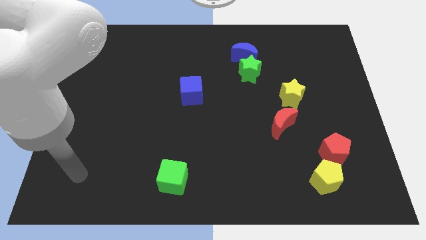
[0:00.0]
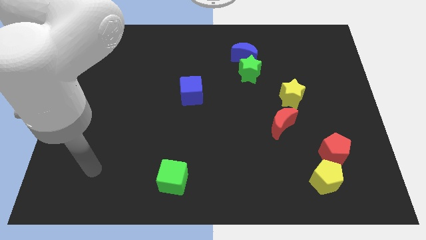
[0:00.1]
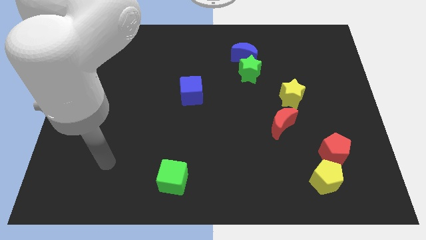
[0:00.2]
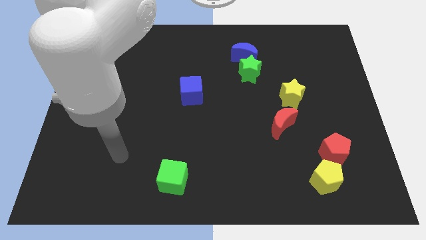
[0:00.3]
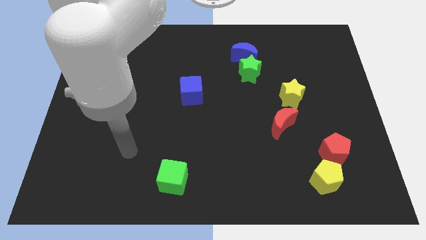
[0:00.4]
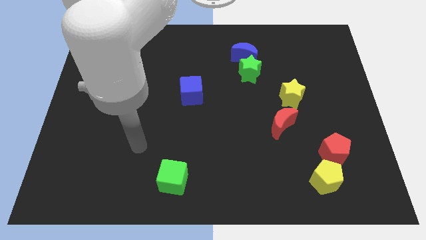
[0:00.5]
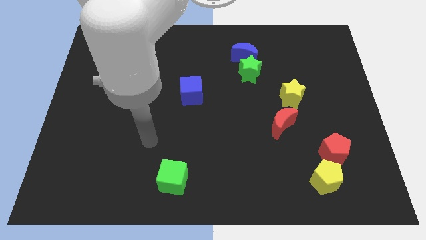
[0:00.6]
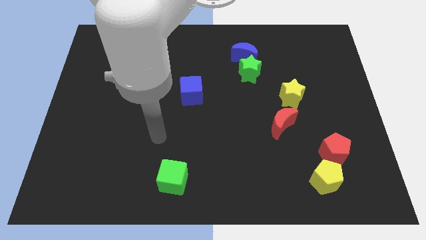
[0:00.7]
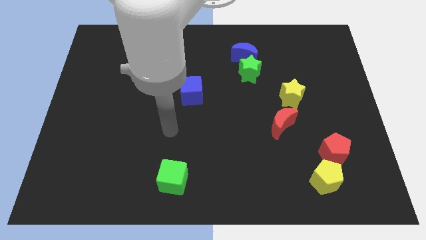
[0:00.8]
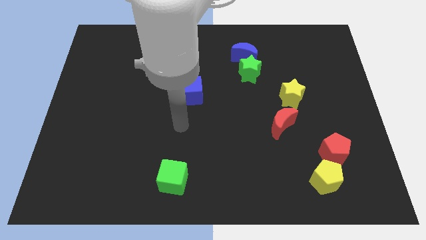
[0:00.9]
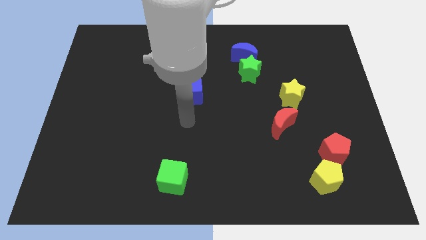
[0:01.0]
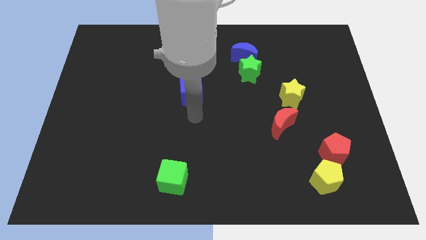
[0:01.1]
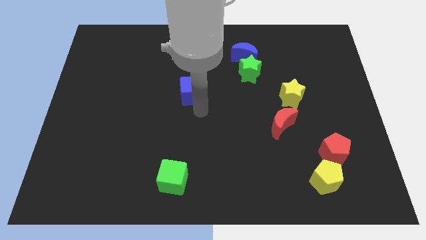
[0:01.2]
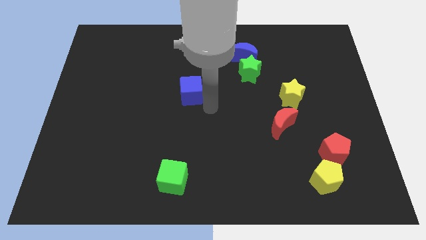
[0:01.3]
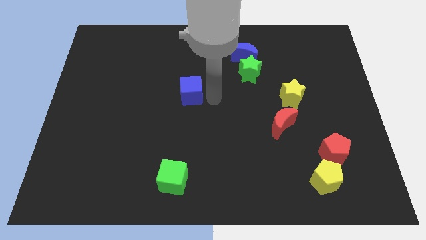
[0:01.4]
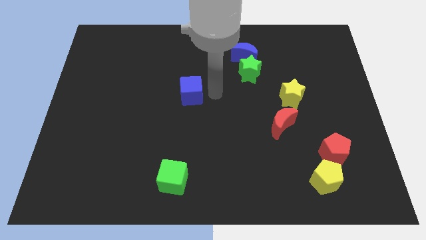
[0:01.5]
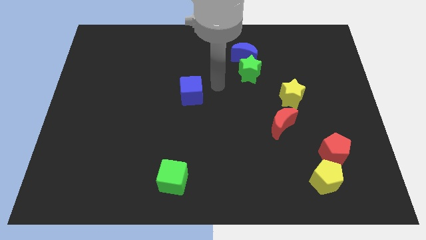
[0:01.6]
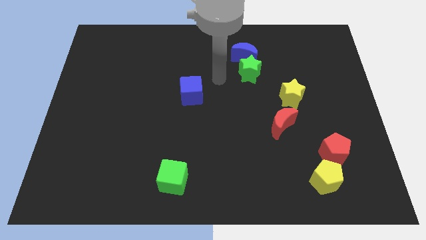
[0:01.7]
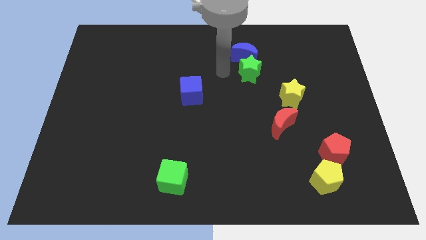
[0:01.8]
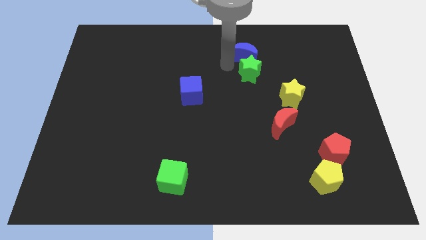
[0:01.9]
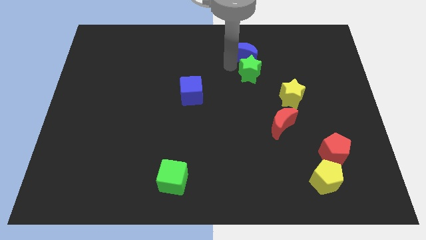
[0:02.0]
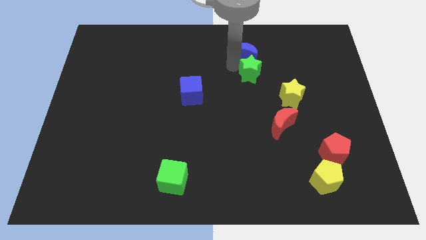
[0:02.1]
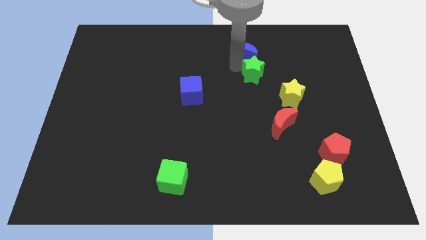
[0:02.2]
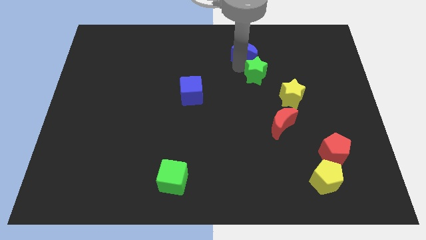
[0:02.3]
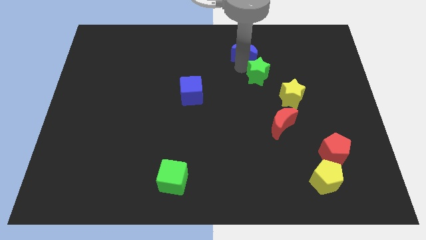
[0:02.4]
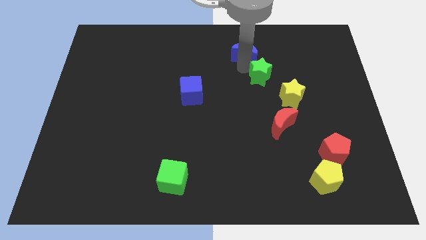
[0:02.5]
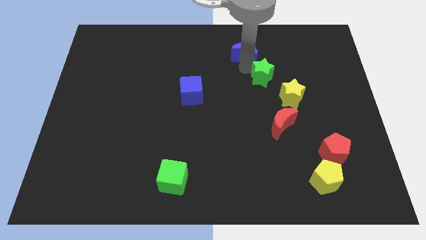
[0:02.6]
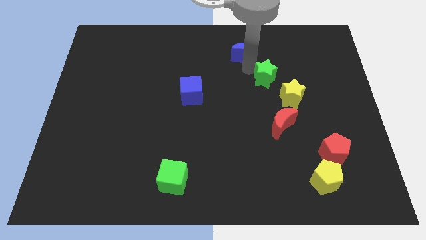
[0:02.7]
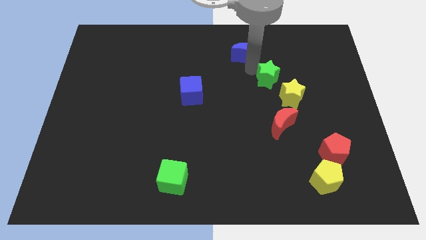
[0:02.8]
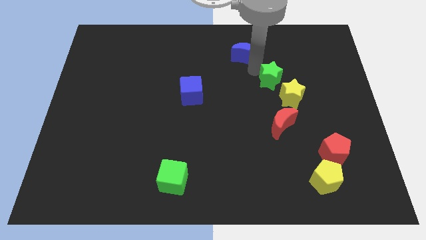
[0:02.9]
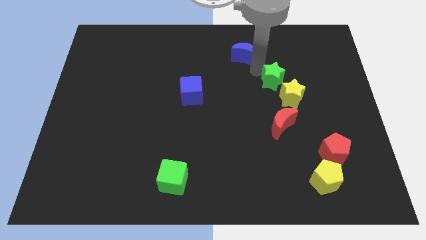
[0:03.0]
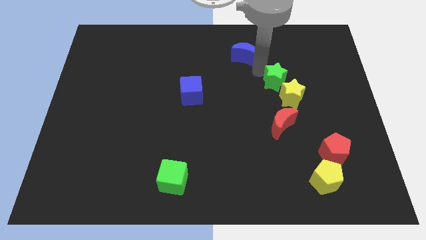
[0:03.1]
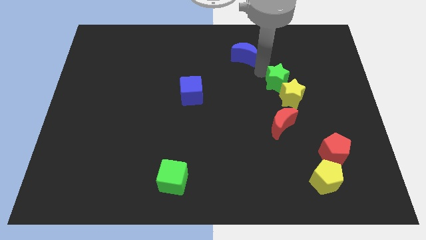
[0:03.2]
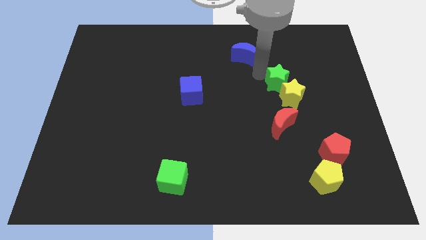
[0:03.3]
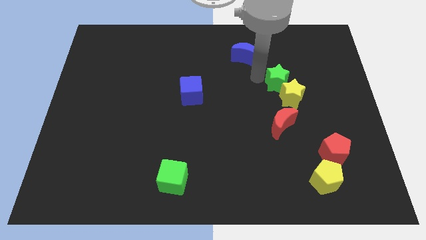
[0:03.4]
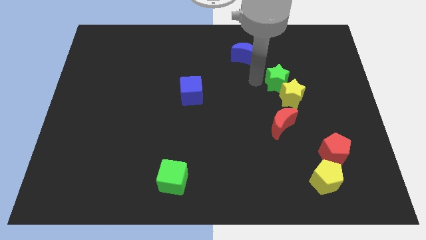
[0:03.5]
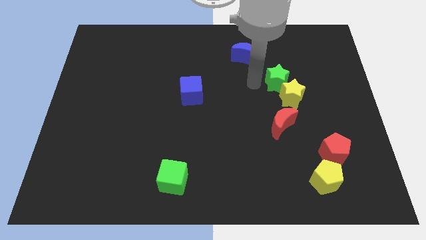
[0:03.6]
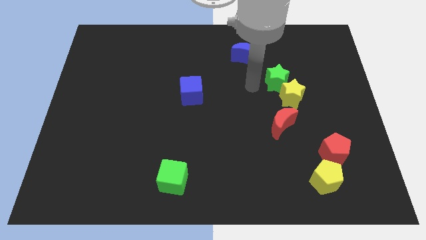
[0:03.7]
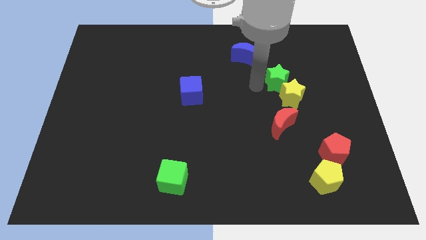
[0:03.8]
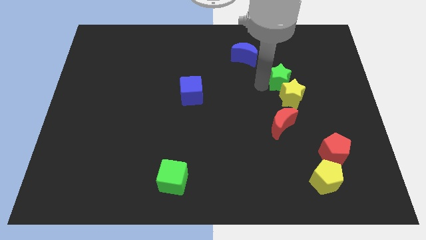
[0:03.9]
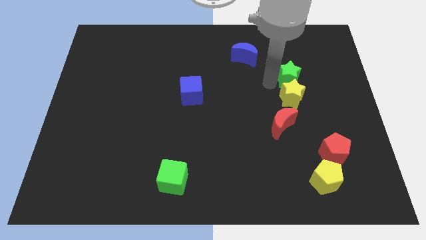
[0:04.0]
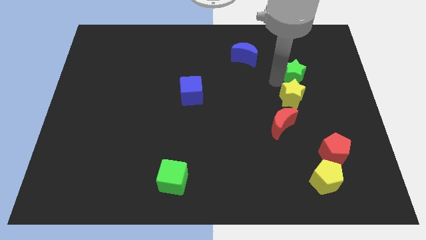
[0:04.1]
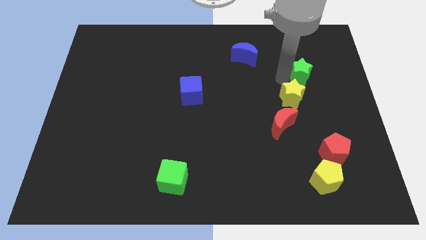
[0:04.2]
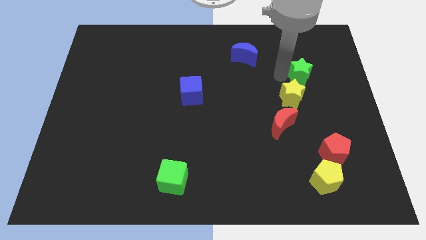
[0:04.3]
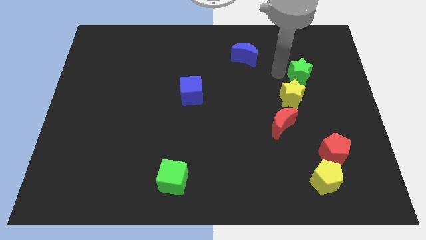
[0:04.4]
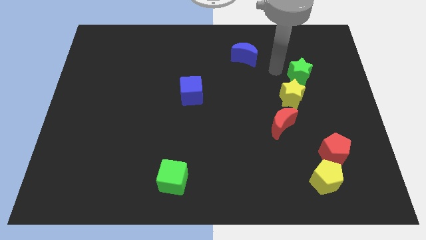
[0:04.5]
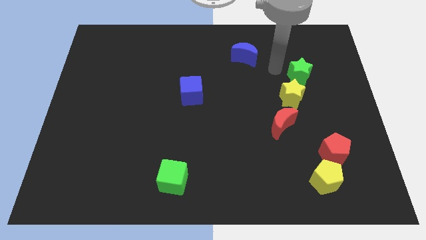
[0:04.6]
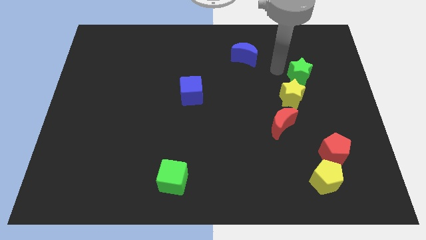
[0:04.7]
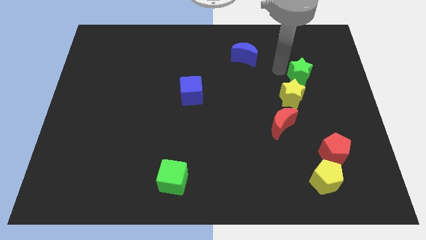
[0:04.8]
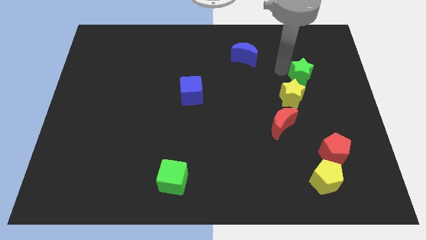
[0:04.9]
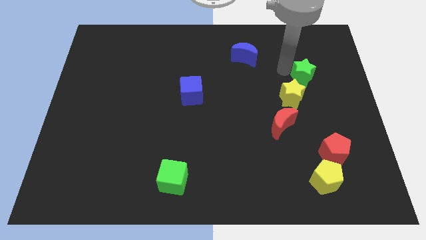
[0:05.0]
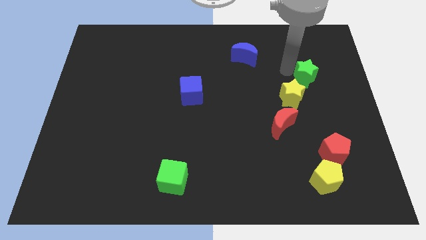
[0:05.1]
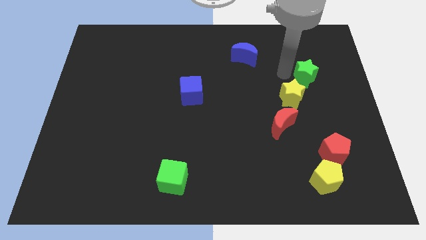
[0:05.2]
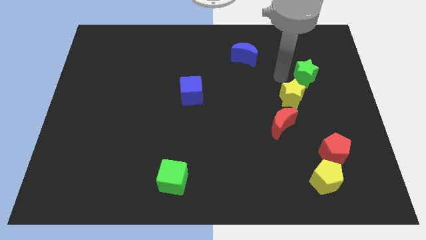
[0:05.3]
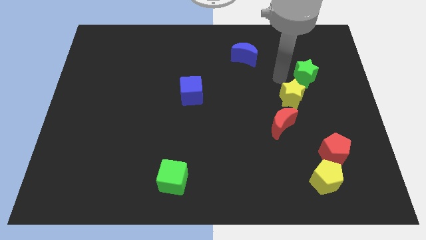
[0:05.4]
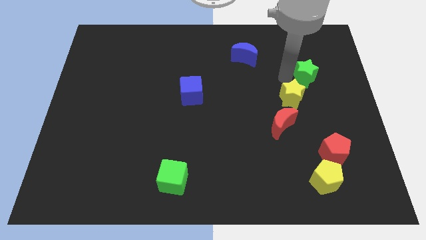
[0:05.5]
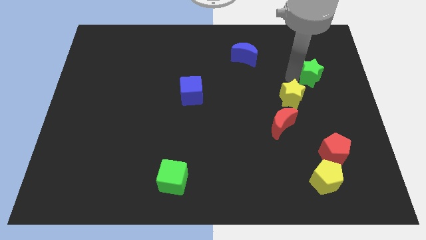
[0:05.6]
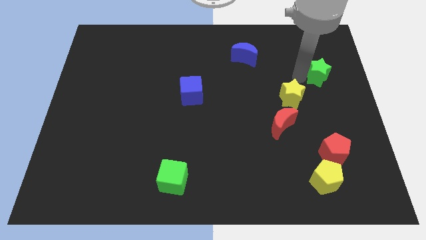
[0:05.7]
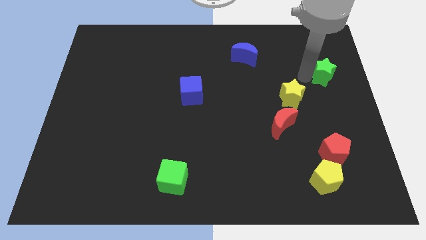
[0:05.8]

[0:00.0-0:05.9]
move the green star to the right side

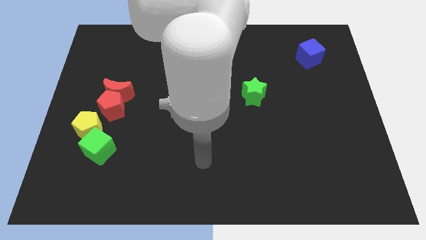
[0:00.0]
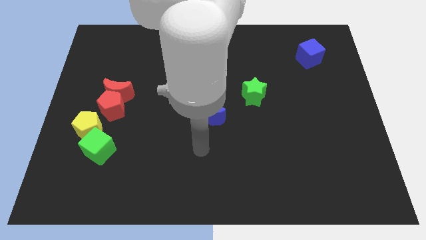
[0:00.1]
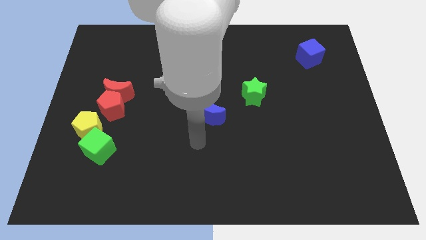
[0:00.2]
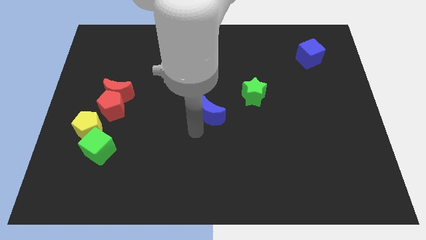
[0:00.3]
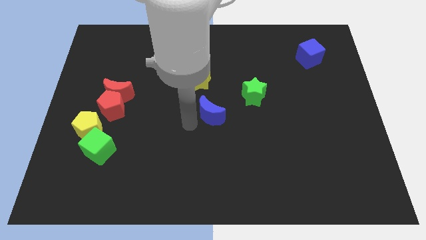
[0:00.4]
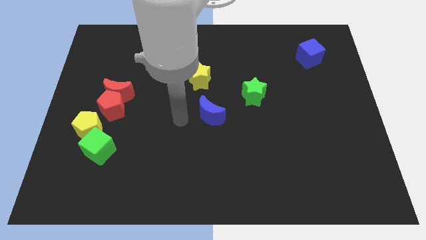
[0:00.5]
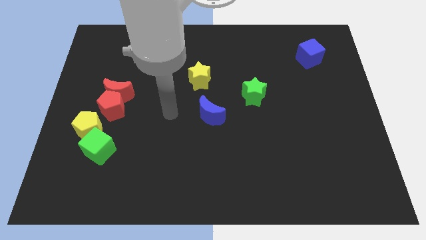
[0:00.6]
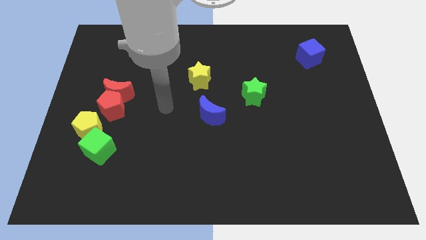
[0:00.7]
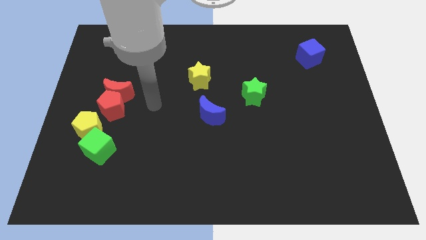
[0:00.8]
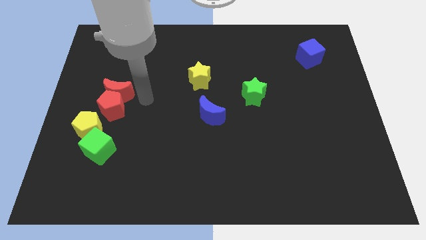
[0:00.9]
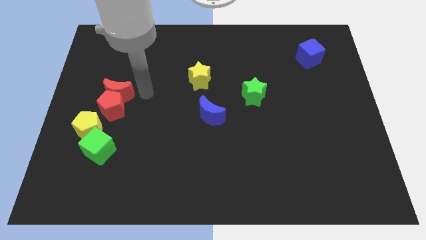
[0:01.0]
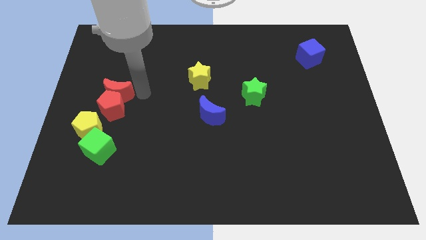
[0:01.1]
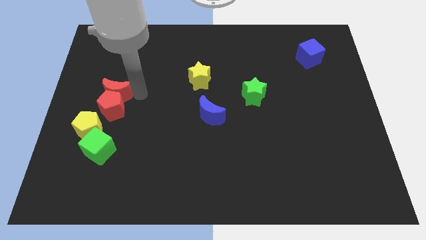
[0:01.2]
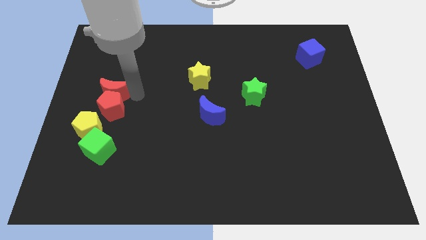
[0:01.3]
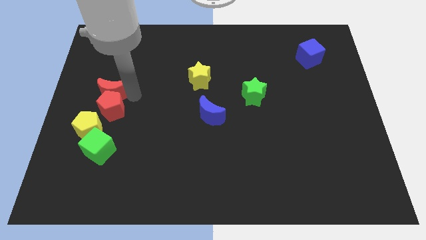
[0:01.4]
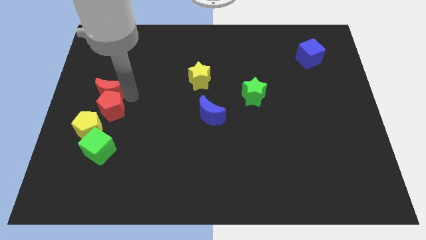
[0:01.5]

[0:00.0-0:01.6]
slide the red moon to the left side of the board
